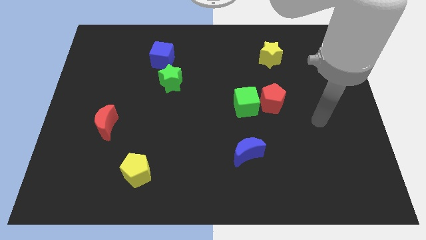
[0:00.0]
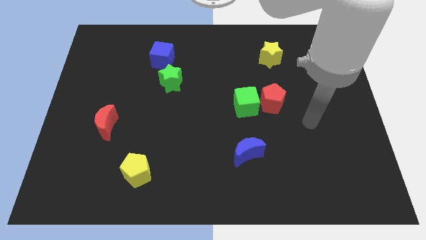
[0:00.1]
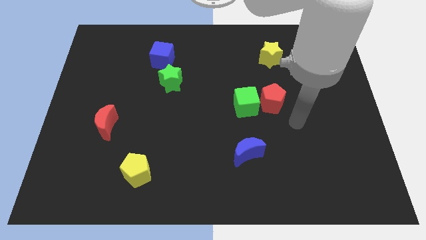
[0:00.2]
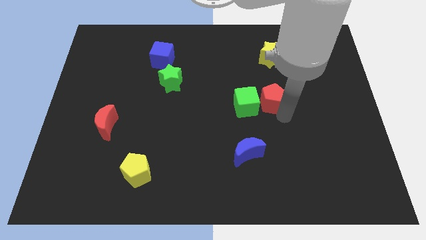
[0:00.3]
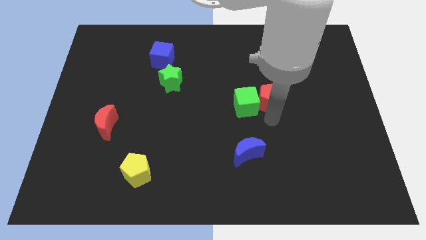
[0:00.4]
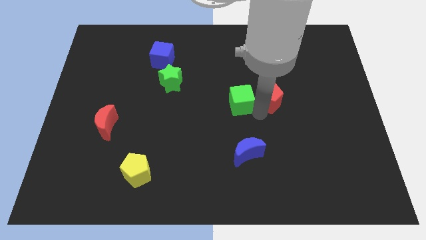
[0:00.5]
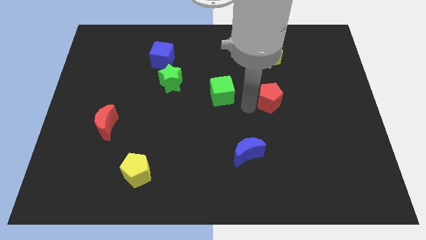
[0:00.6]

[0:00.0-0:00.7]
pull the red pentagon apart from the green cube

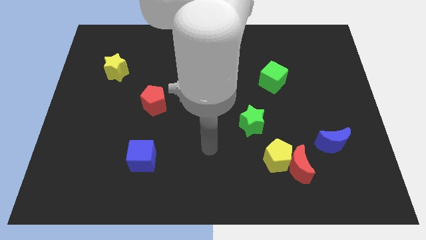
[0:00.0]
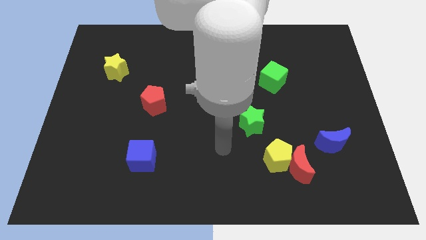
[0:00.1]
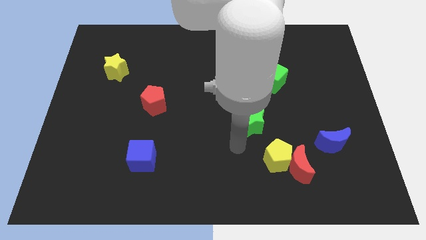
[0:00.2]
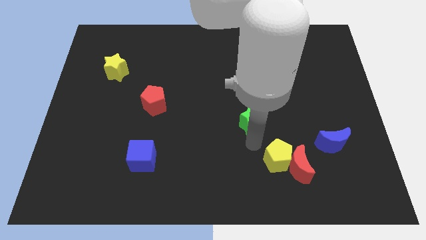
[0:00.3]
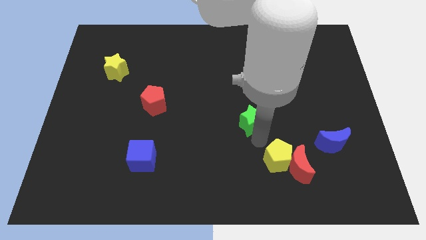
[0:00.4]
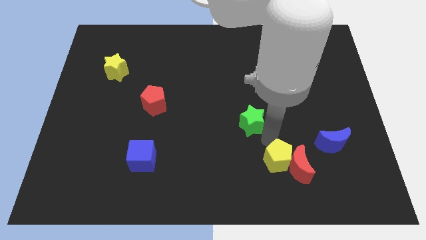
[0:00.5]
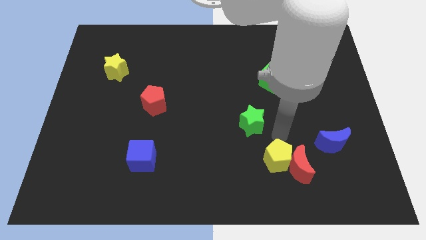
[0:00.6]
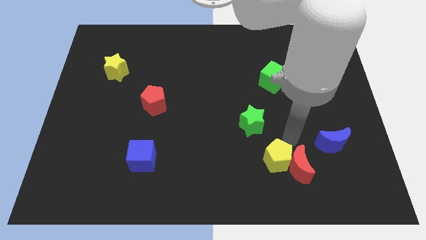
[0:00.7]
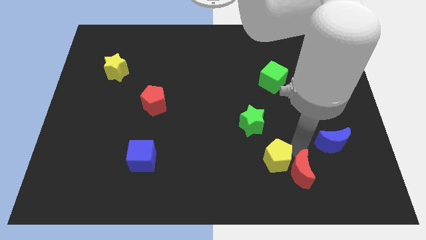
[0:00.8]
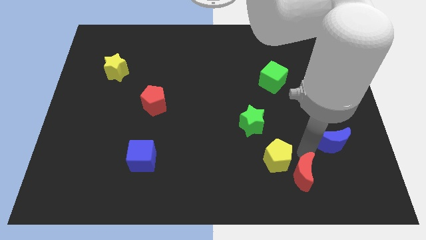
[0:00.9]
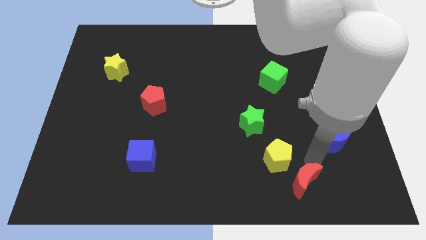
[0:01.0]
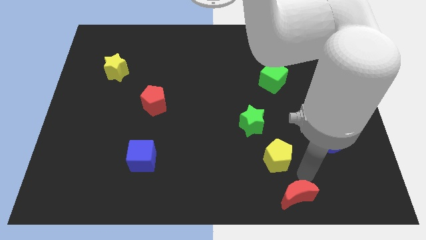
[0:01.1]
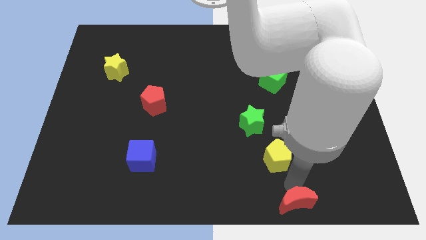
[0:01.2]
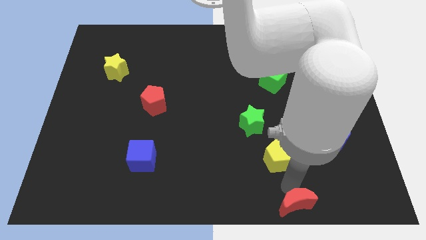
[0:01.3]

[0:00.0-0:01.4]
move the yellow pentagon away from the red moon

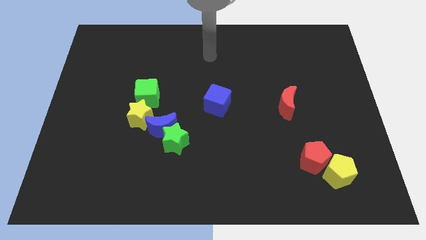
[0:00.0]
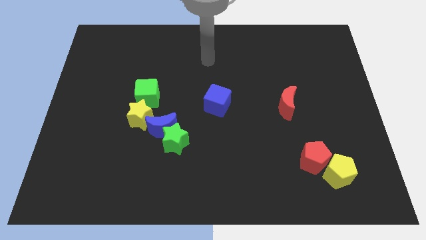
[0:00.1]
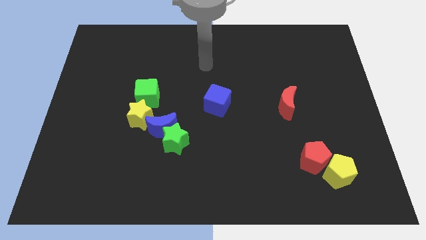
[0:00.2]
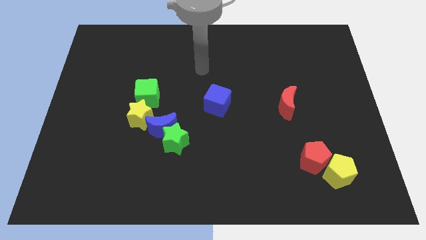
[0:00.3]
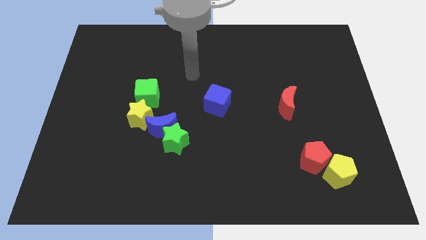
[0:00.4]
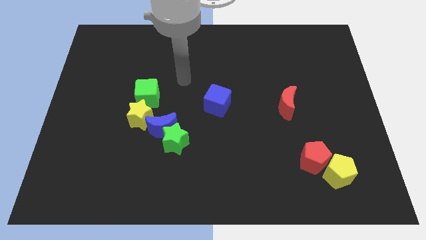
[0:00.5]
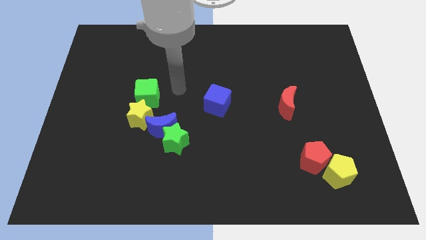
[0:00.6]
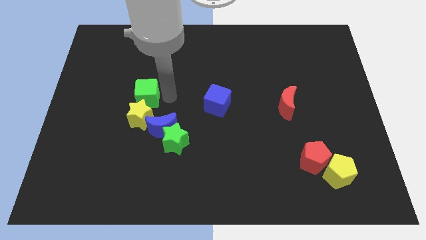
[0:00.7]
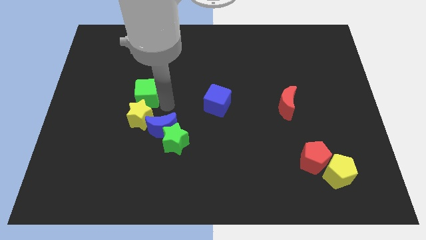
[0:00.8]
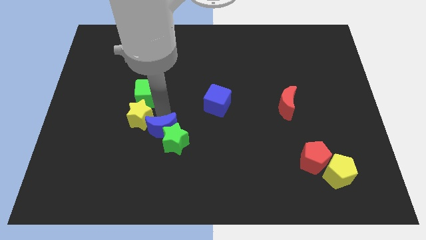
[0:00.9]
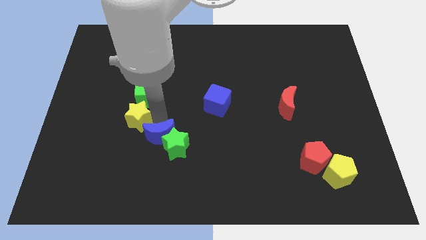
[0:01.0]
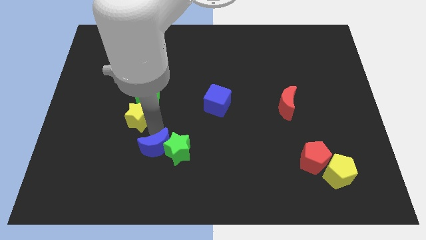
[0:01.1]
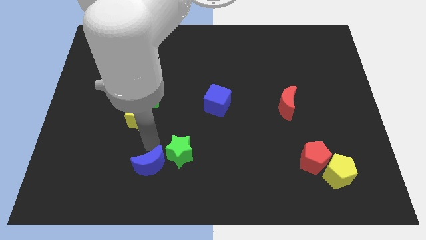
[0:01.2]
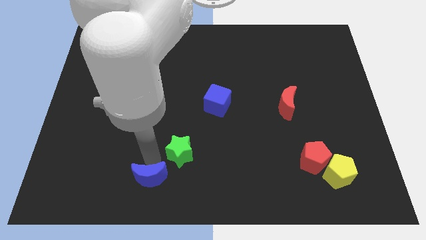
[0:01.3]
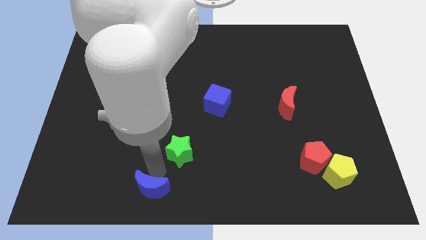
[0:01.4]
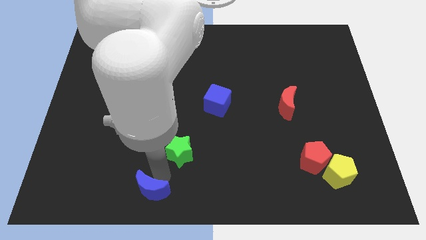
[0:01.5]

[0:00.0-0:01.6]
move the green star away from the blue moon

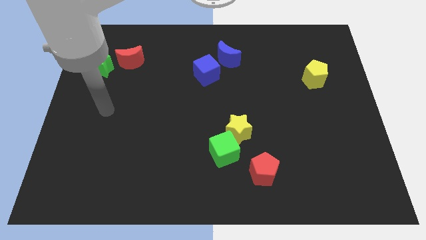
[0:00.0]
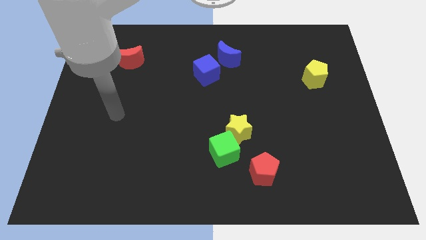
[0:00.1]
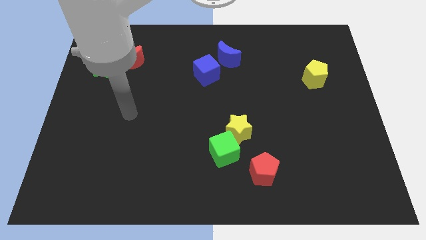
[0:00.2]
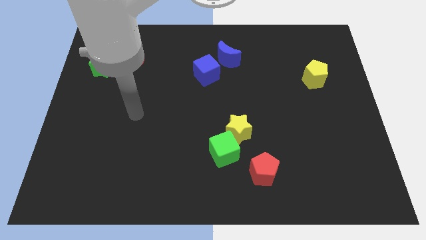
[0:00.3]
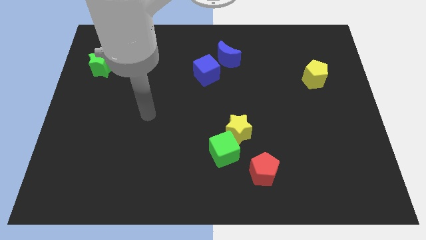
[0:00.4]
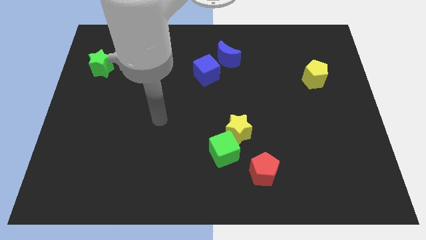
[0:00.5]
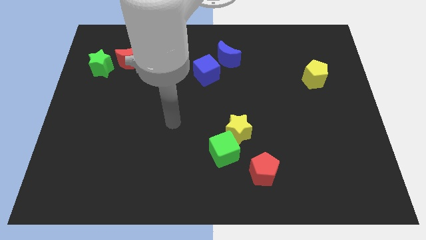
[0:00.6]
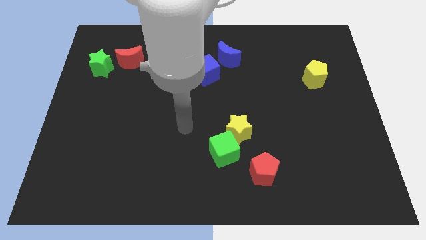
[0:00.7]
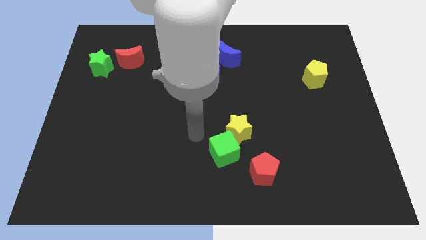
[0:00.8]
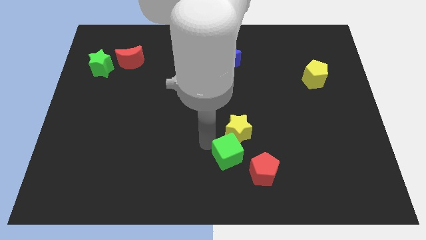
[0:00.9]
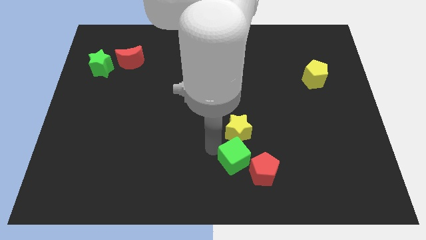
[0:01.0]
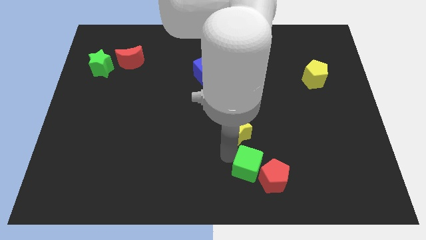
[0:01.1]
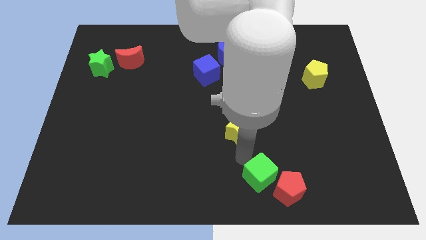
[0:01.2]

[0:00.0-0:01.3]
move the yellow star away from the green cube

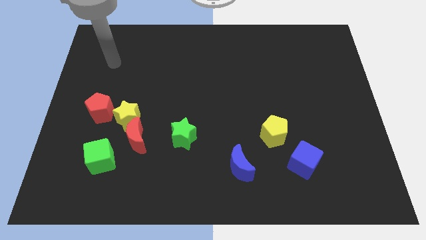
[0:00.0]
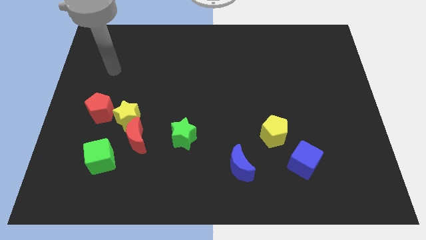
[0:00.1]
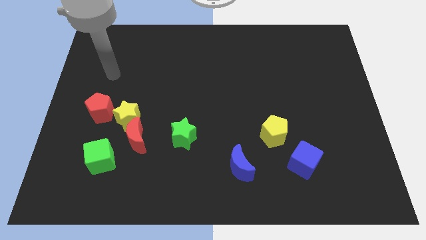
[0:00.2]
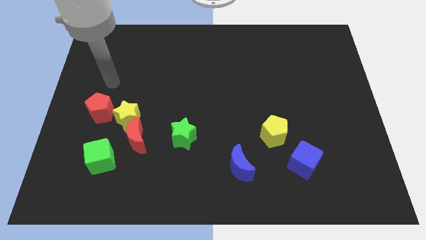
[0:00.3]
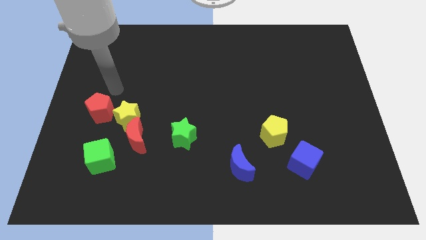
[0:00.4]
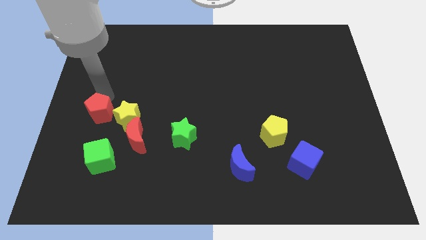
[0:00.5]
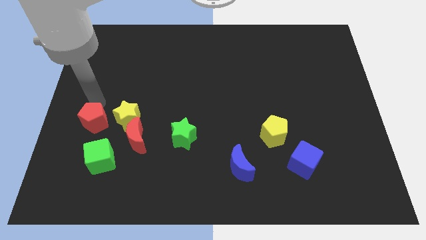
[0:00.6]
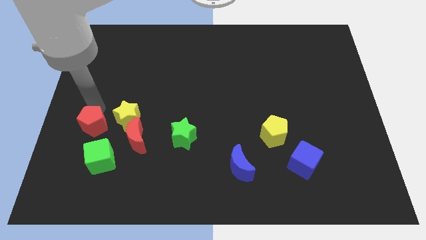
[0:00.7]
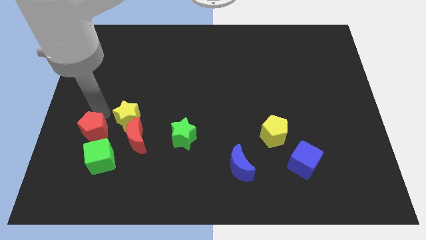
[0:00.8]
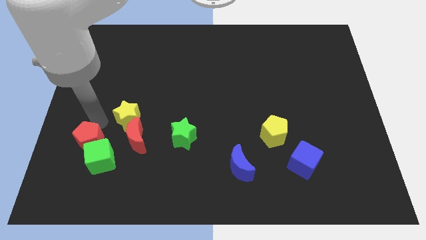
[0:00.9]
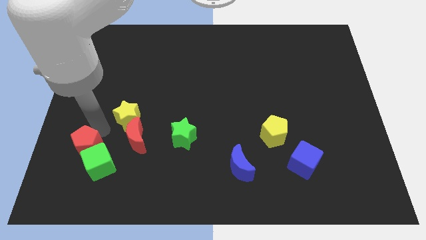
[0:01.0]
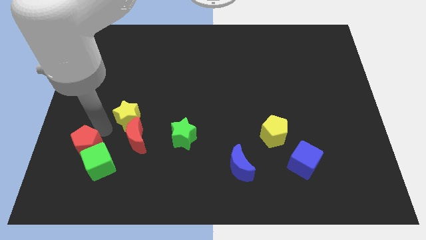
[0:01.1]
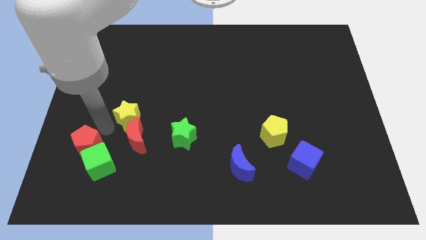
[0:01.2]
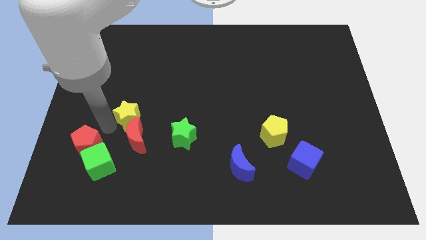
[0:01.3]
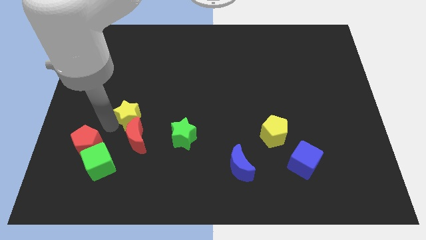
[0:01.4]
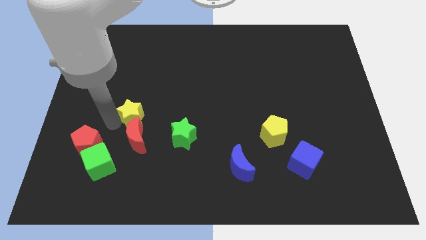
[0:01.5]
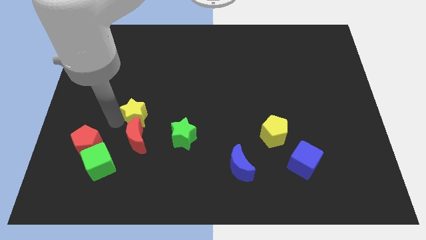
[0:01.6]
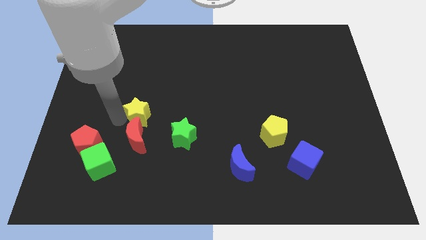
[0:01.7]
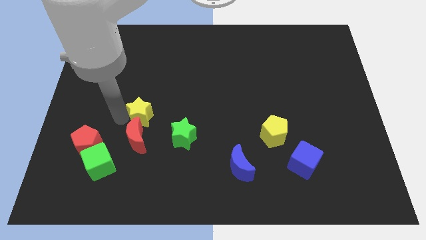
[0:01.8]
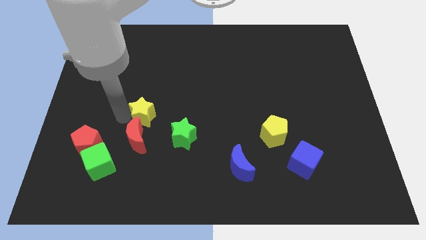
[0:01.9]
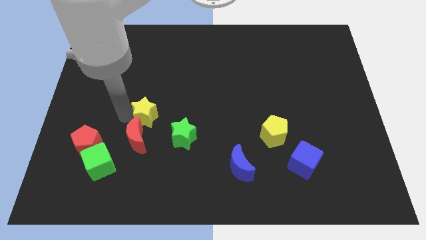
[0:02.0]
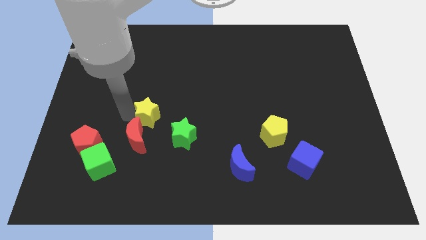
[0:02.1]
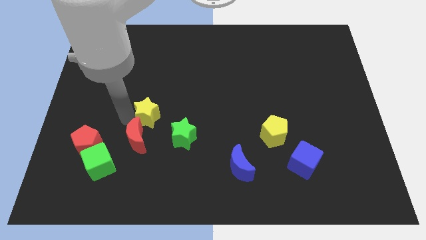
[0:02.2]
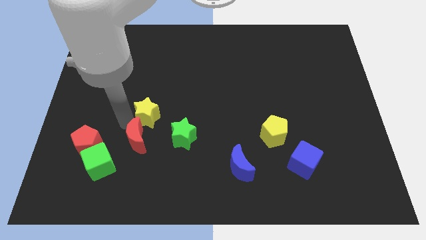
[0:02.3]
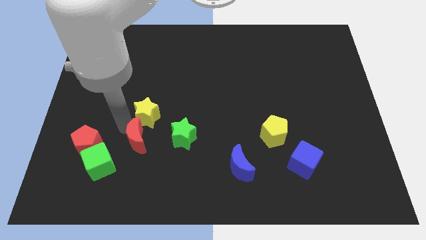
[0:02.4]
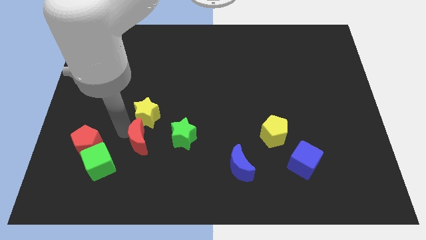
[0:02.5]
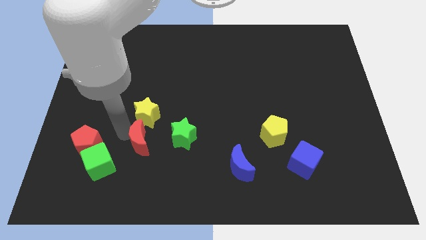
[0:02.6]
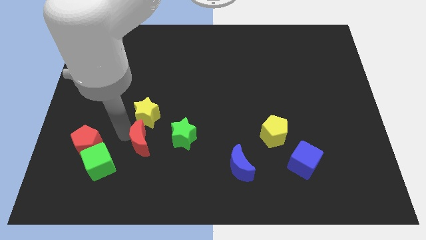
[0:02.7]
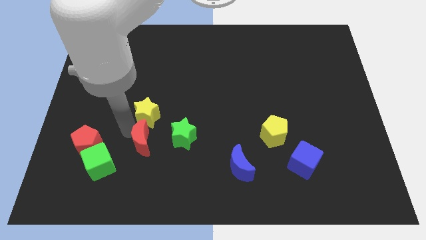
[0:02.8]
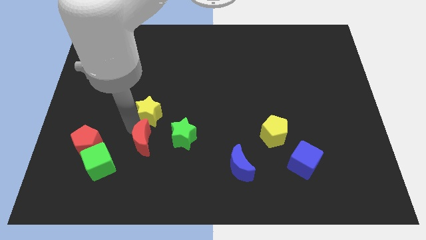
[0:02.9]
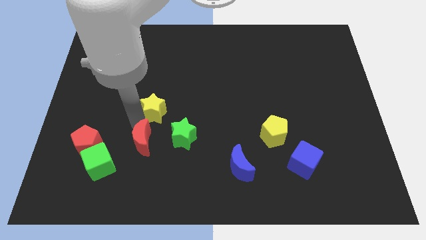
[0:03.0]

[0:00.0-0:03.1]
separate the yellow star from the red moon and red pentagon

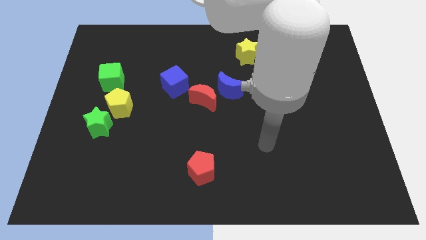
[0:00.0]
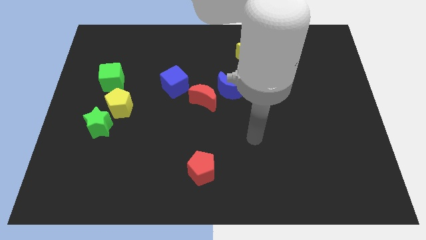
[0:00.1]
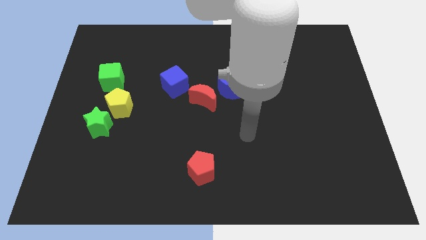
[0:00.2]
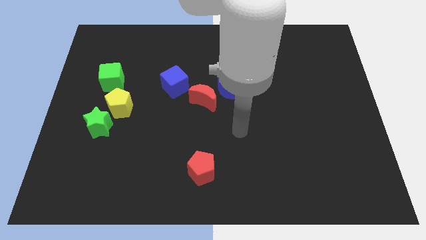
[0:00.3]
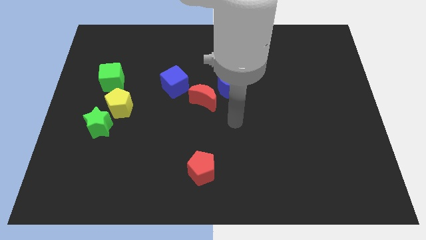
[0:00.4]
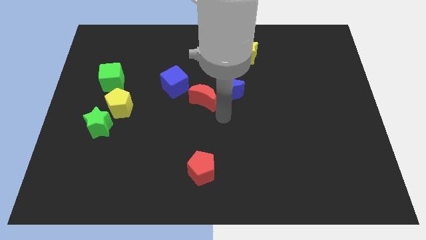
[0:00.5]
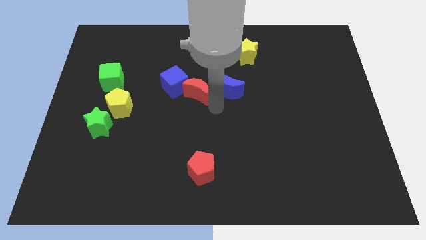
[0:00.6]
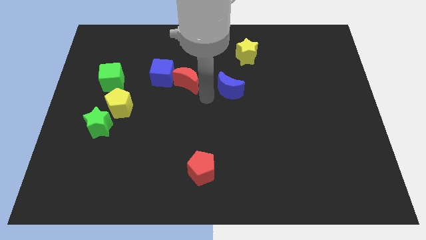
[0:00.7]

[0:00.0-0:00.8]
separate the blue moon from the red moon

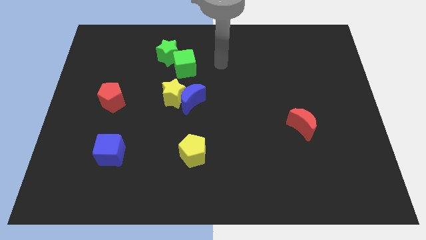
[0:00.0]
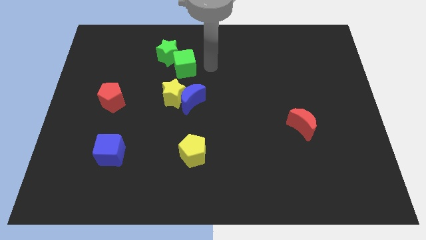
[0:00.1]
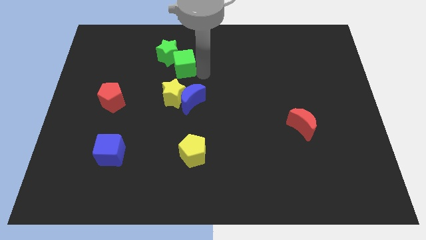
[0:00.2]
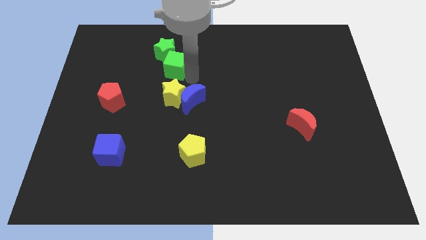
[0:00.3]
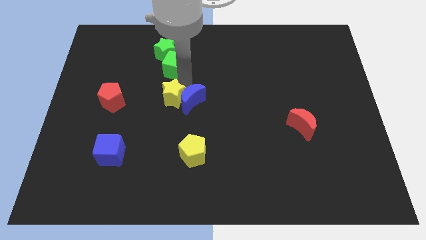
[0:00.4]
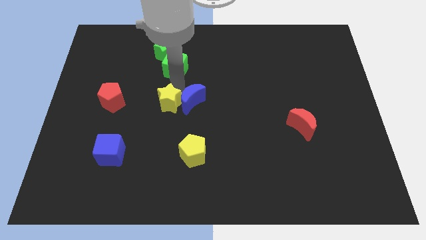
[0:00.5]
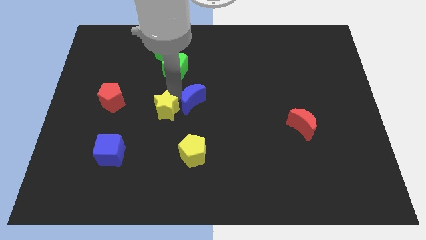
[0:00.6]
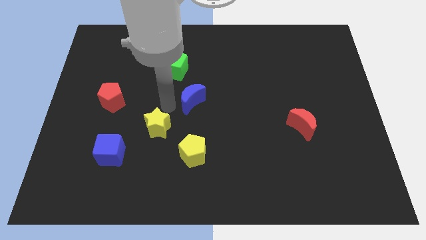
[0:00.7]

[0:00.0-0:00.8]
move the blue moon away from the yellow star
